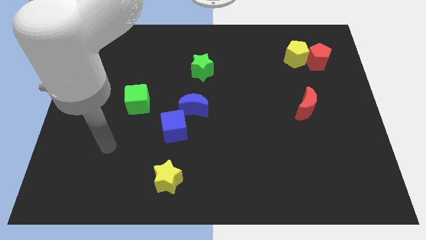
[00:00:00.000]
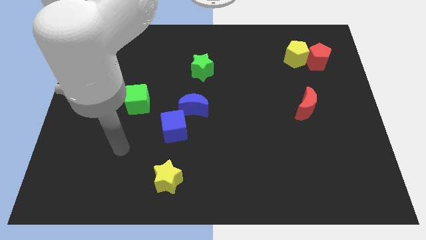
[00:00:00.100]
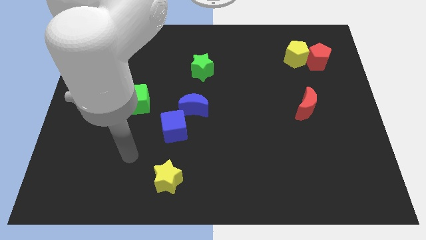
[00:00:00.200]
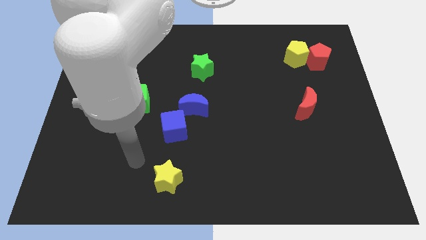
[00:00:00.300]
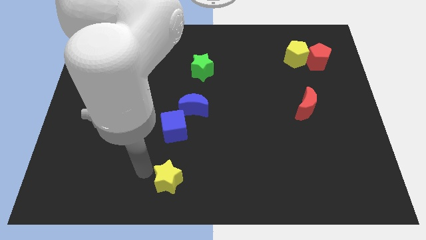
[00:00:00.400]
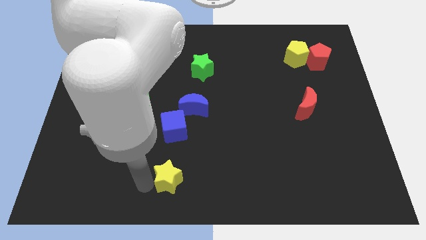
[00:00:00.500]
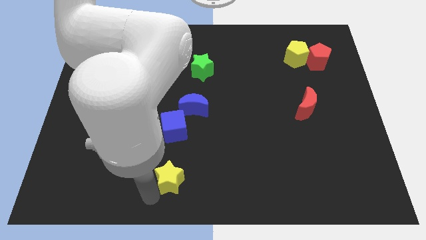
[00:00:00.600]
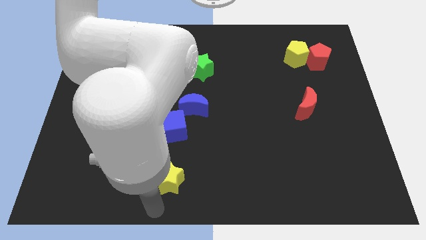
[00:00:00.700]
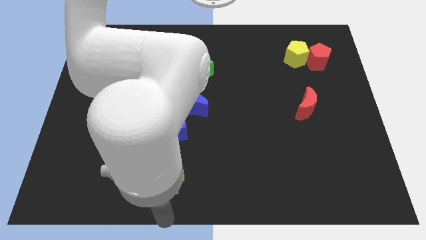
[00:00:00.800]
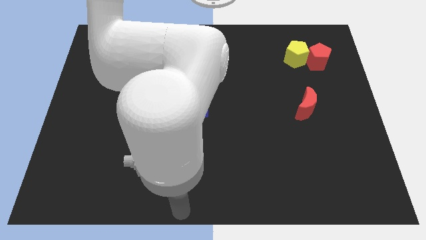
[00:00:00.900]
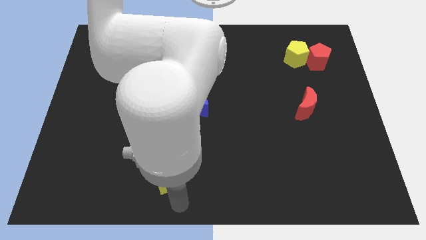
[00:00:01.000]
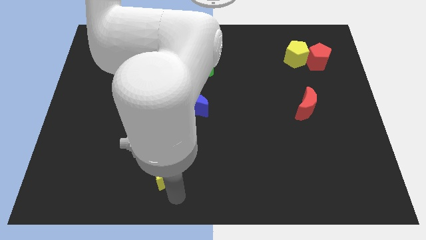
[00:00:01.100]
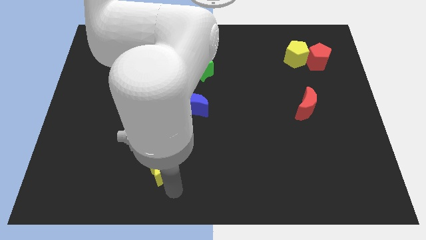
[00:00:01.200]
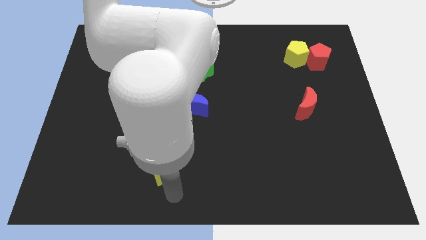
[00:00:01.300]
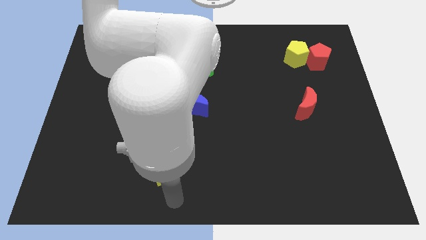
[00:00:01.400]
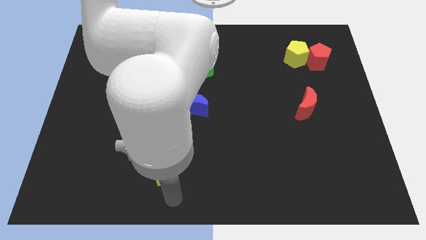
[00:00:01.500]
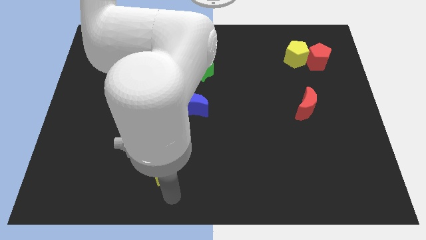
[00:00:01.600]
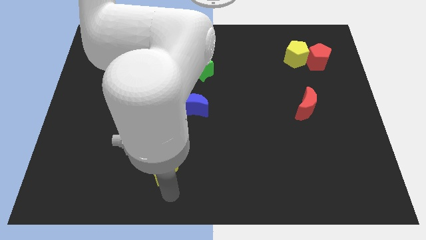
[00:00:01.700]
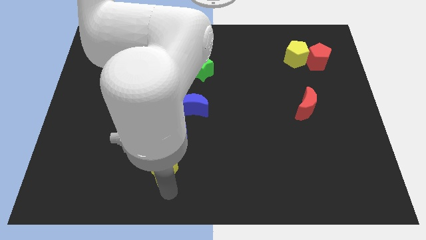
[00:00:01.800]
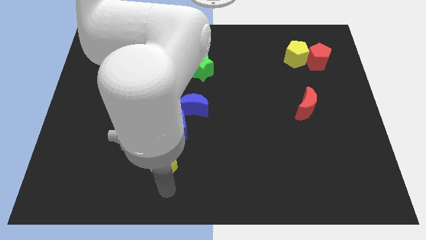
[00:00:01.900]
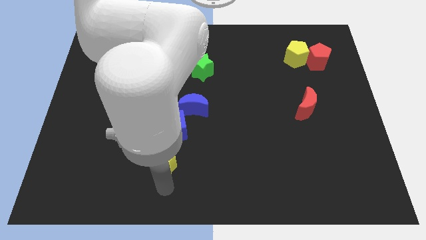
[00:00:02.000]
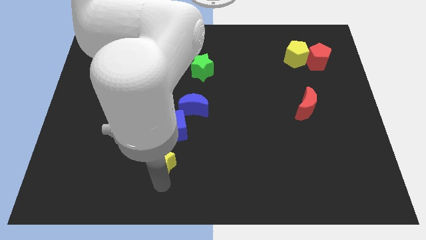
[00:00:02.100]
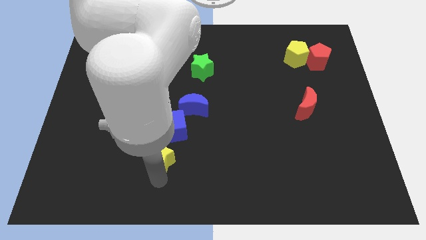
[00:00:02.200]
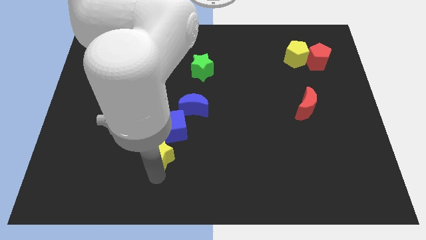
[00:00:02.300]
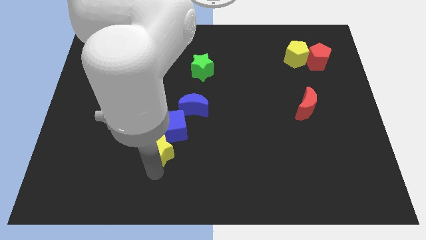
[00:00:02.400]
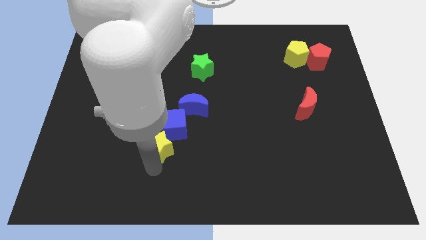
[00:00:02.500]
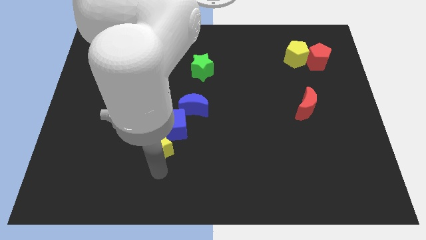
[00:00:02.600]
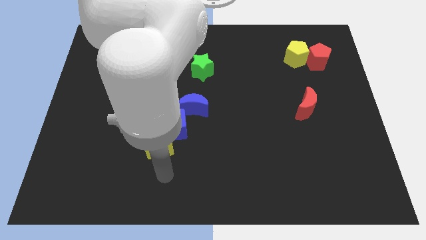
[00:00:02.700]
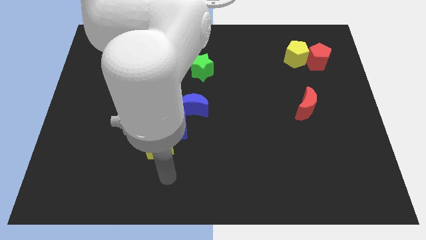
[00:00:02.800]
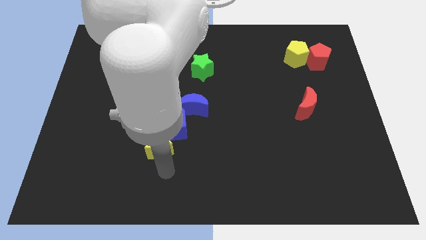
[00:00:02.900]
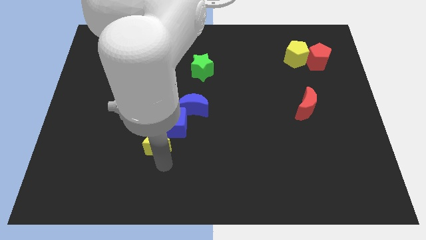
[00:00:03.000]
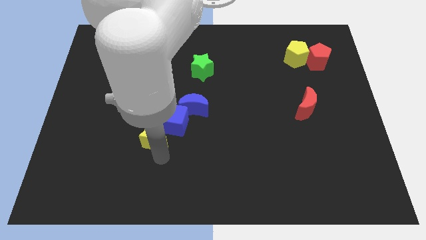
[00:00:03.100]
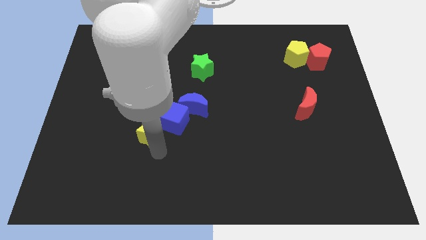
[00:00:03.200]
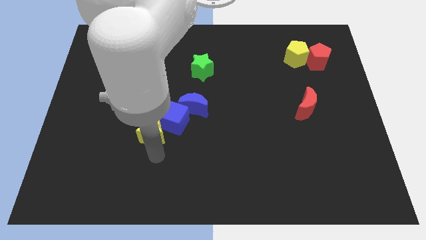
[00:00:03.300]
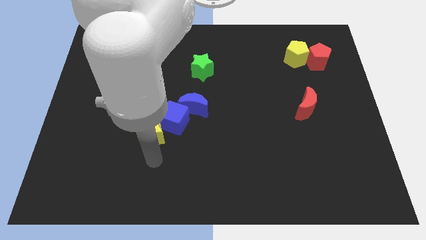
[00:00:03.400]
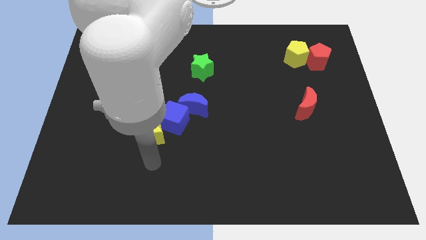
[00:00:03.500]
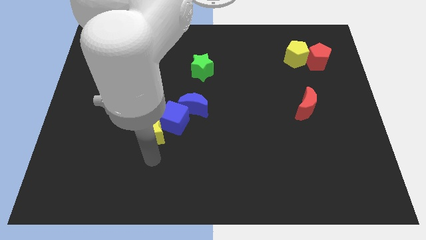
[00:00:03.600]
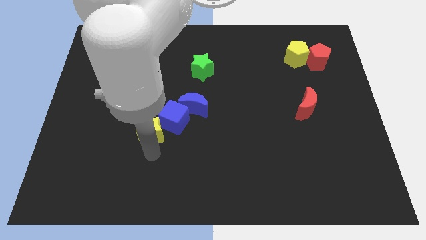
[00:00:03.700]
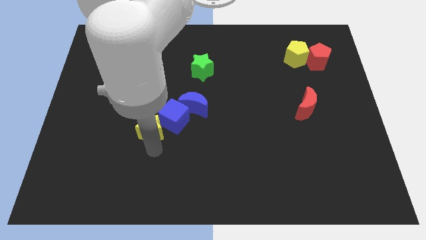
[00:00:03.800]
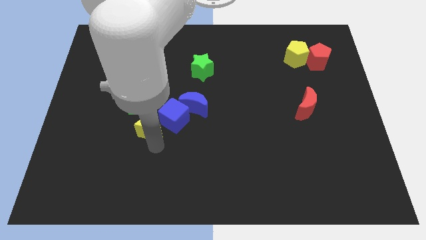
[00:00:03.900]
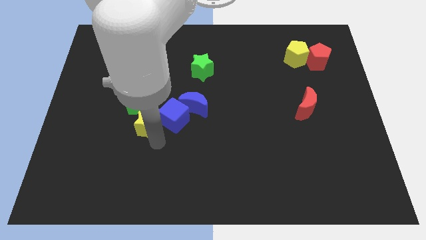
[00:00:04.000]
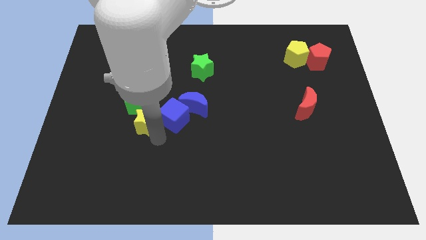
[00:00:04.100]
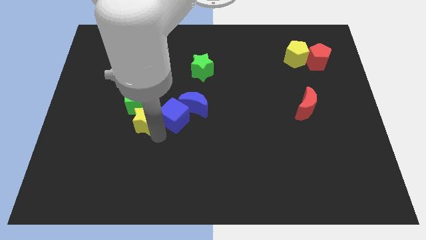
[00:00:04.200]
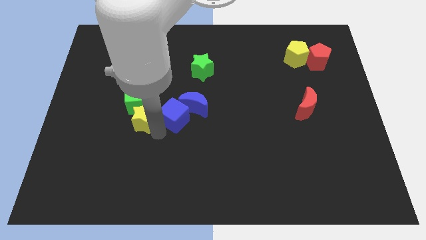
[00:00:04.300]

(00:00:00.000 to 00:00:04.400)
push the yellow star next to the green cube

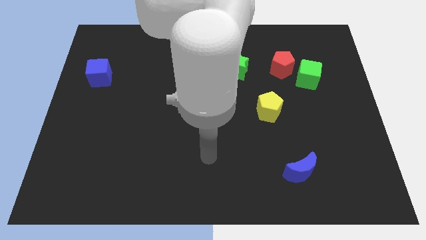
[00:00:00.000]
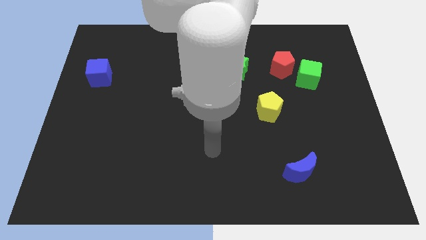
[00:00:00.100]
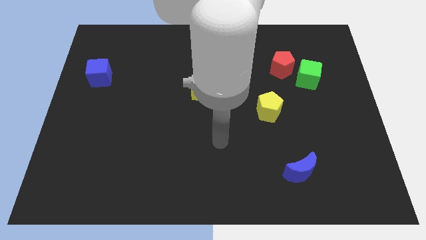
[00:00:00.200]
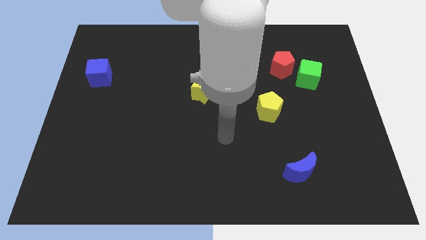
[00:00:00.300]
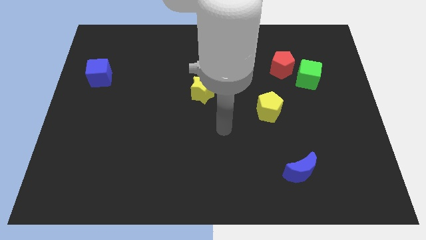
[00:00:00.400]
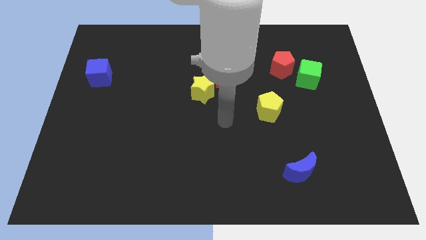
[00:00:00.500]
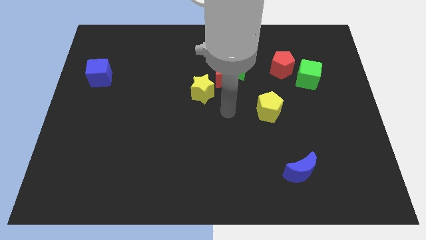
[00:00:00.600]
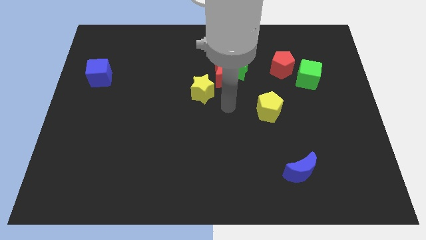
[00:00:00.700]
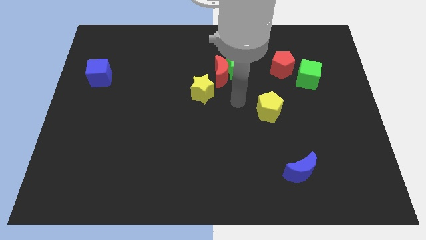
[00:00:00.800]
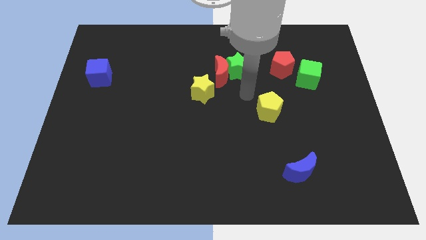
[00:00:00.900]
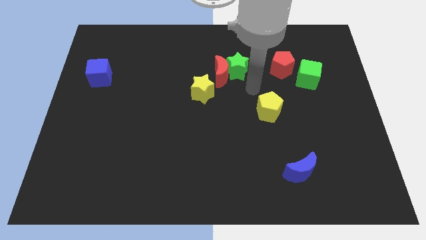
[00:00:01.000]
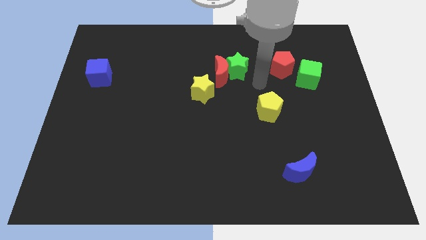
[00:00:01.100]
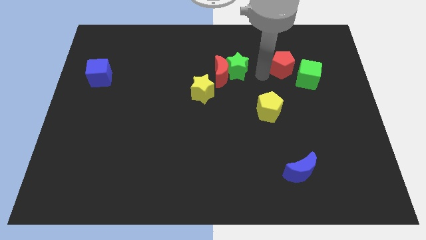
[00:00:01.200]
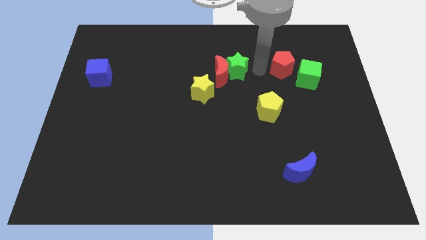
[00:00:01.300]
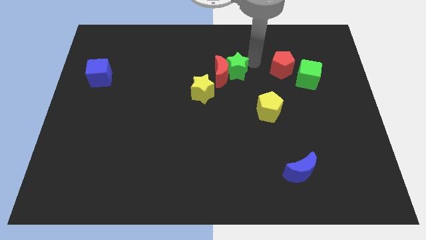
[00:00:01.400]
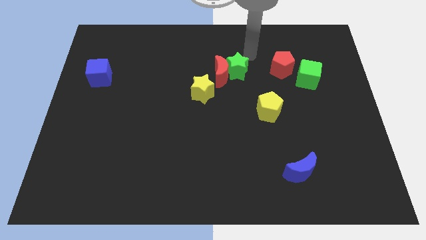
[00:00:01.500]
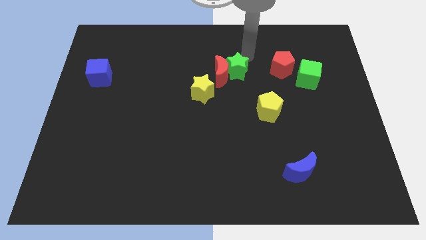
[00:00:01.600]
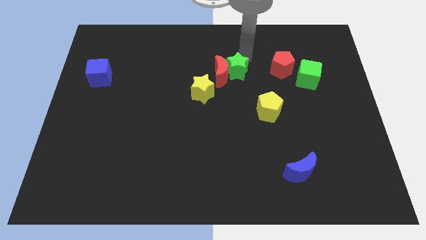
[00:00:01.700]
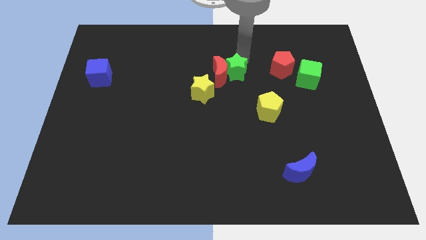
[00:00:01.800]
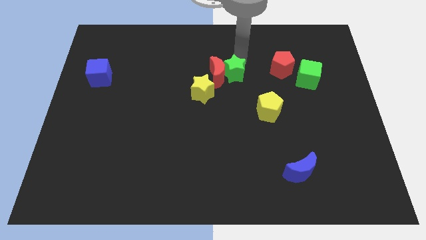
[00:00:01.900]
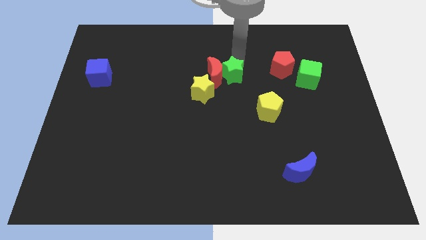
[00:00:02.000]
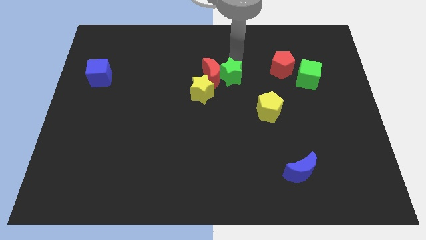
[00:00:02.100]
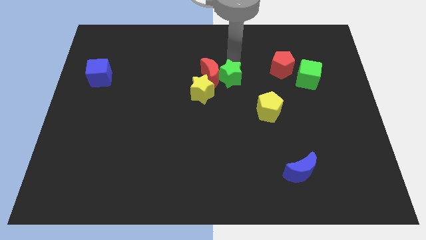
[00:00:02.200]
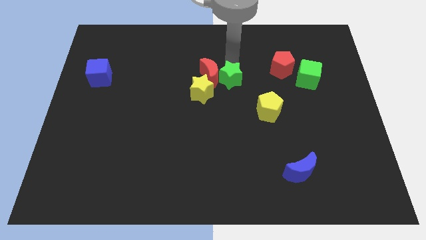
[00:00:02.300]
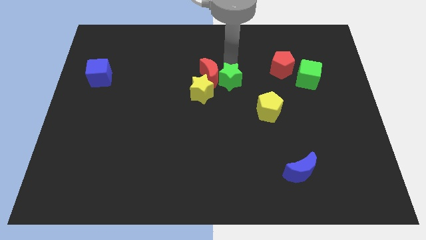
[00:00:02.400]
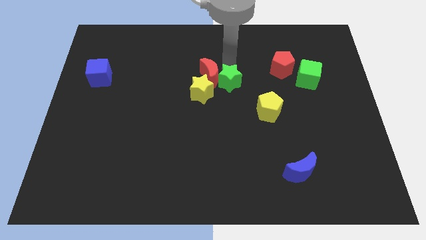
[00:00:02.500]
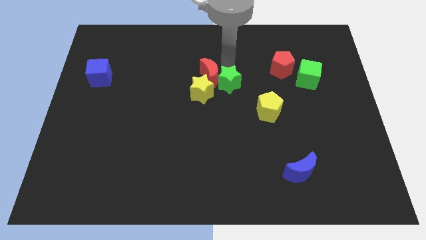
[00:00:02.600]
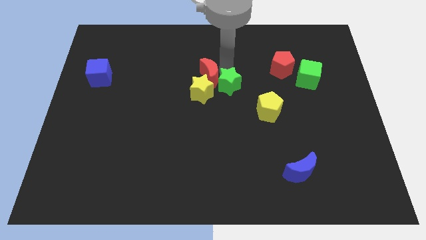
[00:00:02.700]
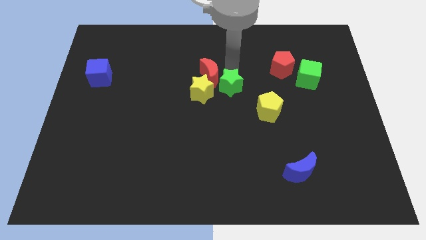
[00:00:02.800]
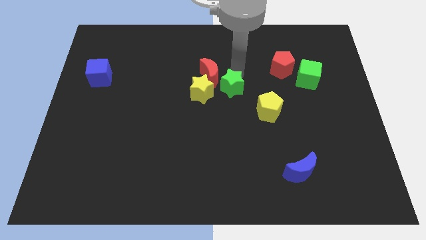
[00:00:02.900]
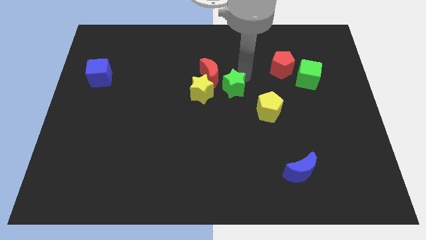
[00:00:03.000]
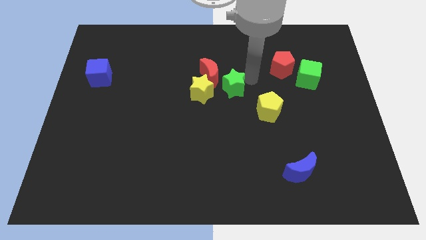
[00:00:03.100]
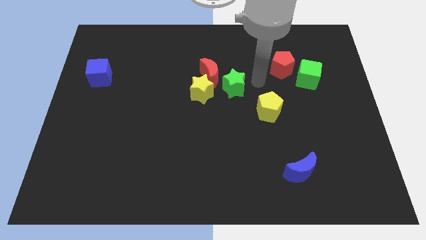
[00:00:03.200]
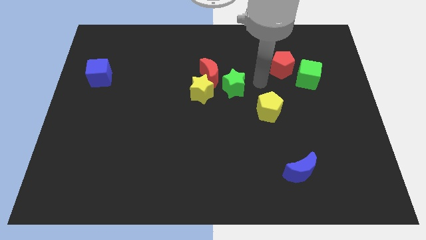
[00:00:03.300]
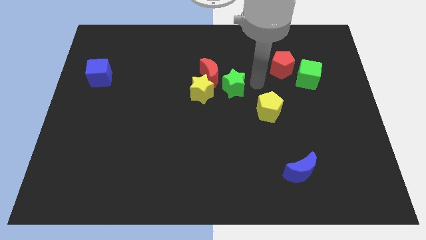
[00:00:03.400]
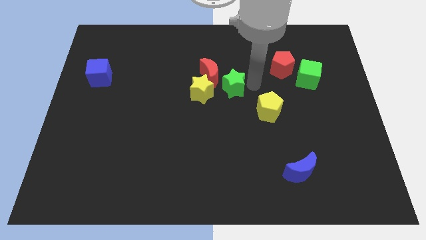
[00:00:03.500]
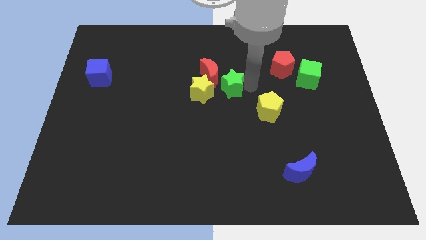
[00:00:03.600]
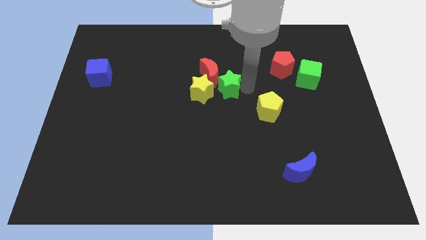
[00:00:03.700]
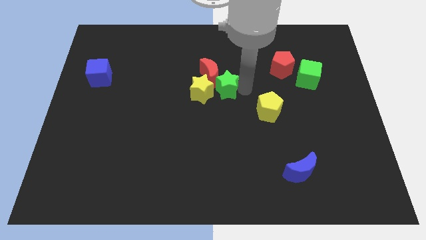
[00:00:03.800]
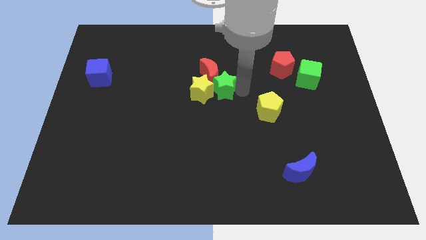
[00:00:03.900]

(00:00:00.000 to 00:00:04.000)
push the green star towards the yellow star
